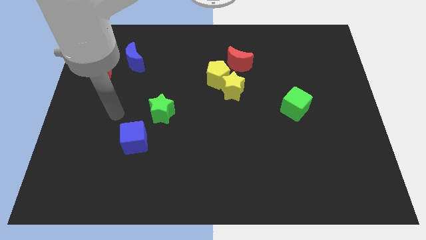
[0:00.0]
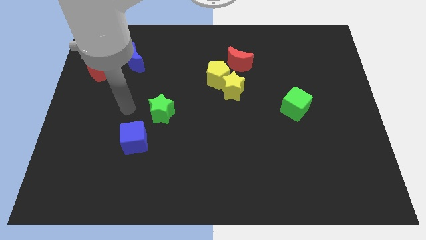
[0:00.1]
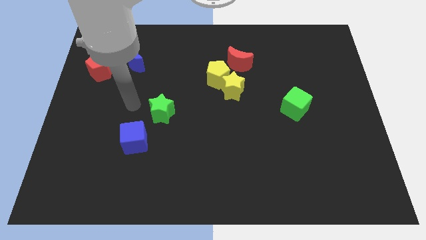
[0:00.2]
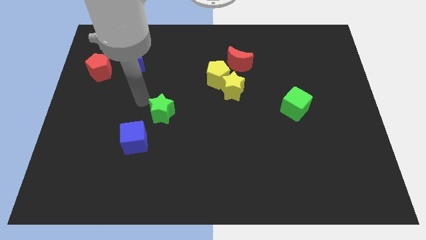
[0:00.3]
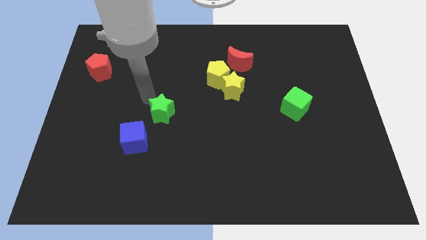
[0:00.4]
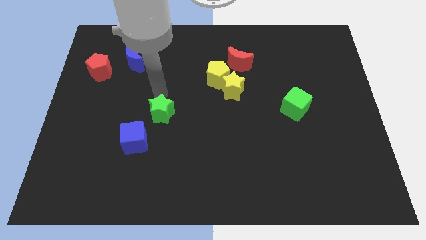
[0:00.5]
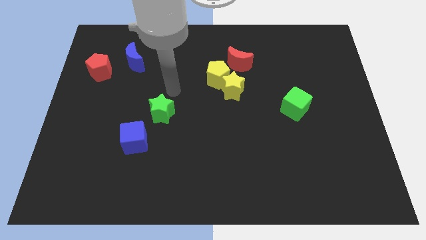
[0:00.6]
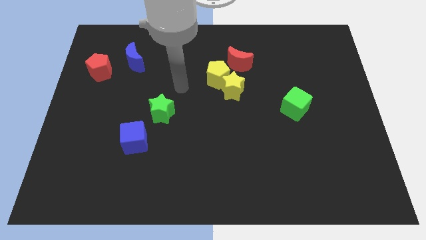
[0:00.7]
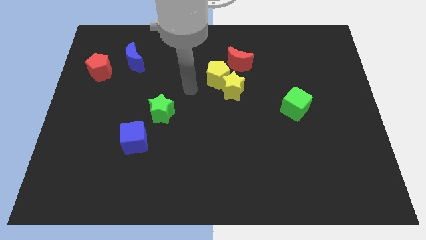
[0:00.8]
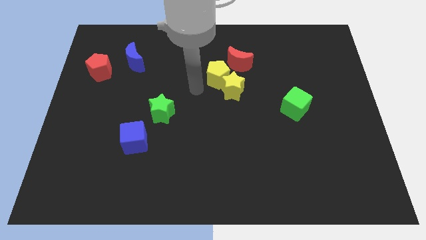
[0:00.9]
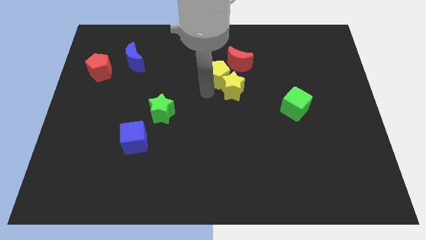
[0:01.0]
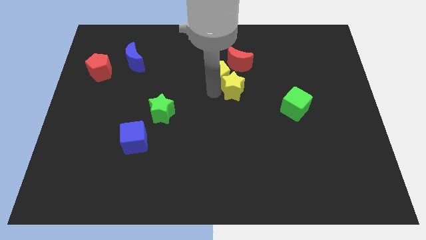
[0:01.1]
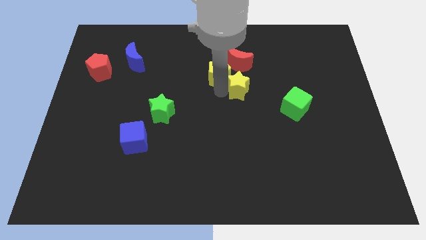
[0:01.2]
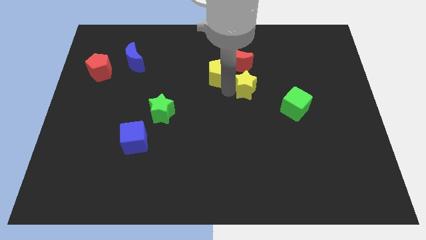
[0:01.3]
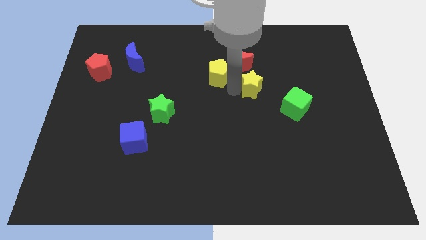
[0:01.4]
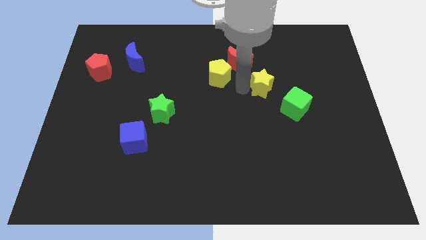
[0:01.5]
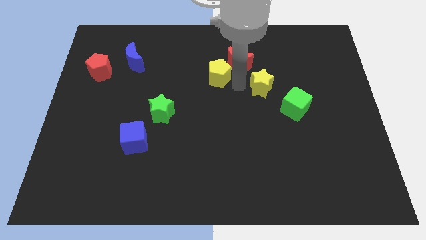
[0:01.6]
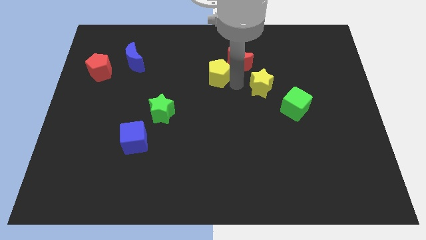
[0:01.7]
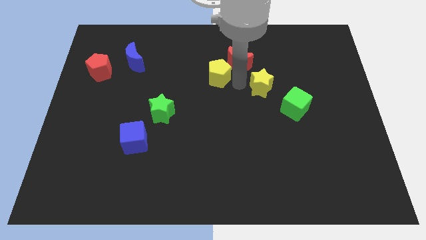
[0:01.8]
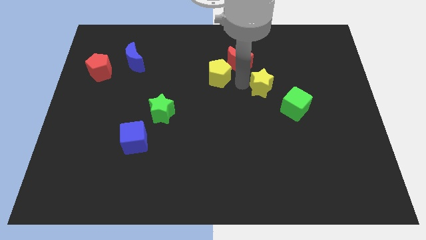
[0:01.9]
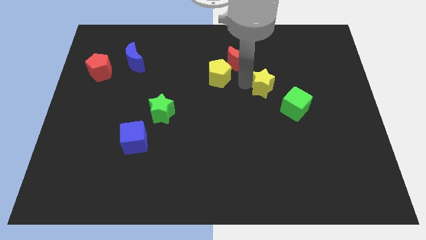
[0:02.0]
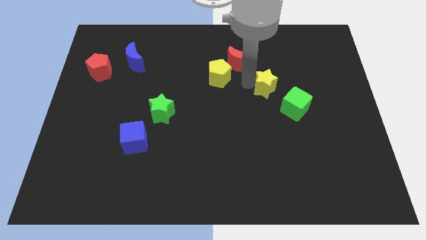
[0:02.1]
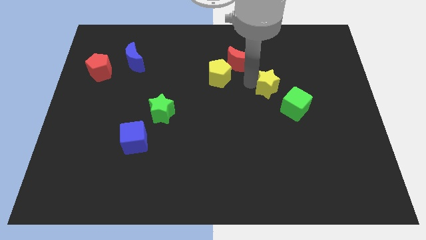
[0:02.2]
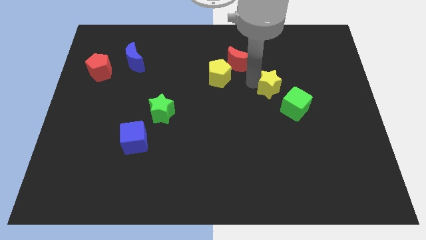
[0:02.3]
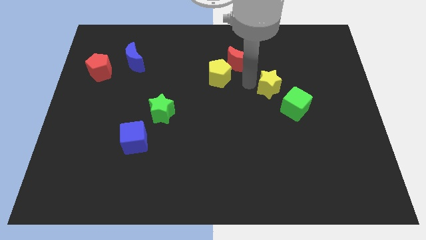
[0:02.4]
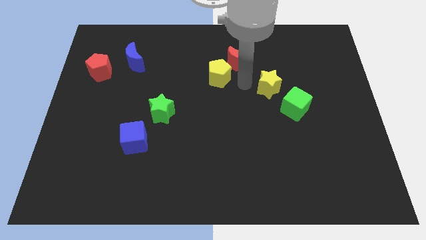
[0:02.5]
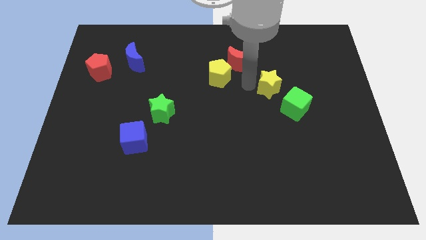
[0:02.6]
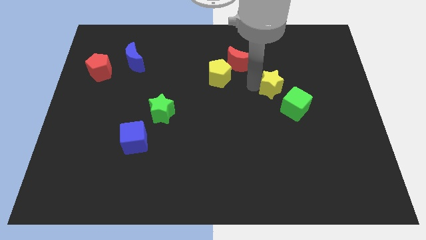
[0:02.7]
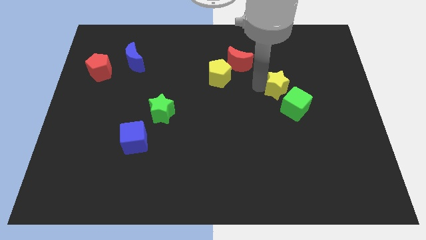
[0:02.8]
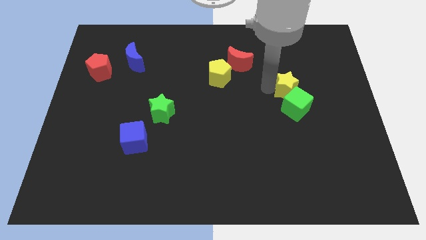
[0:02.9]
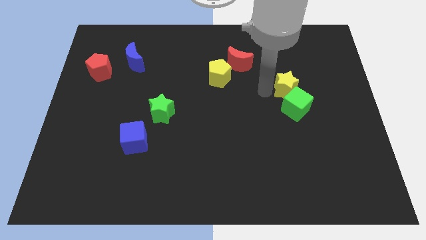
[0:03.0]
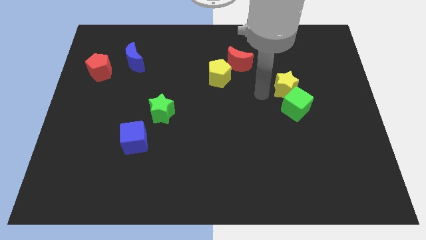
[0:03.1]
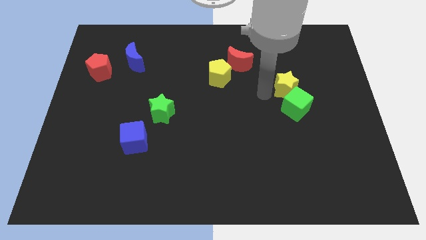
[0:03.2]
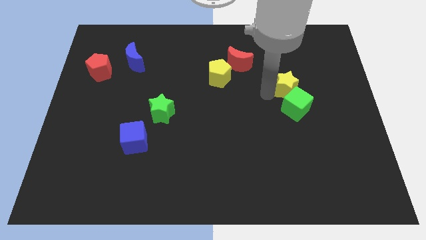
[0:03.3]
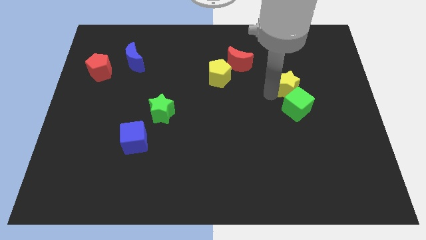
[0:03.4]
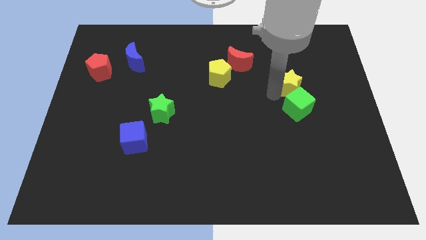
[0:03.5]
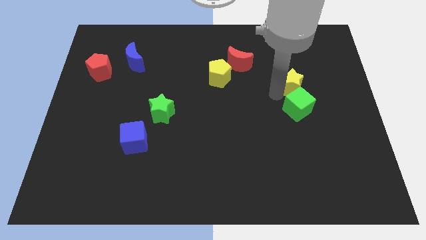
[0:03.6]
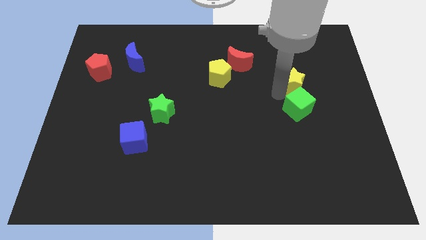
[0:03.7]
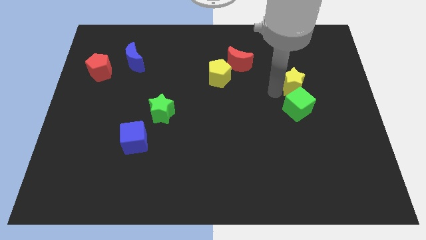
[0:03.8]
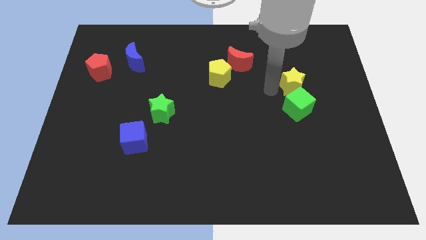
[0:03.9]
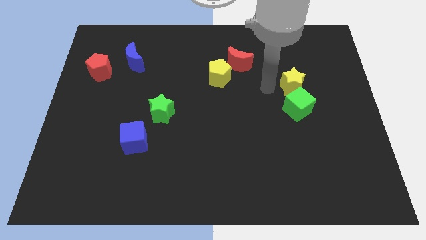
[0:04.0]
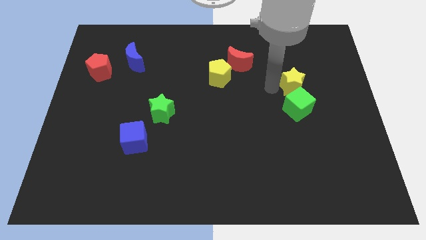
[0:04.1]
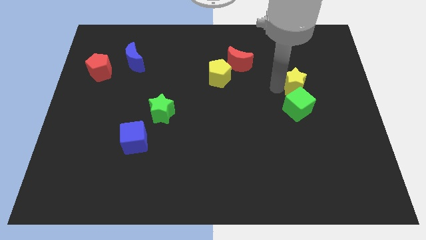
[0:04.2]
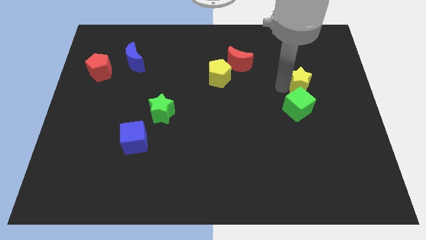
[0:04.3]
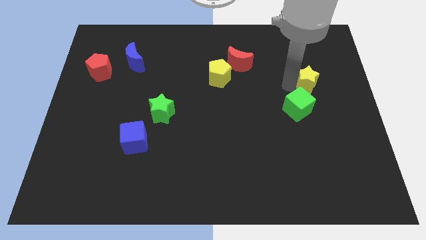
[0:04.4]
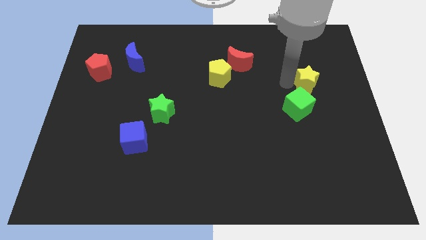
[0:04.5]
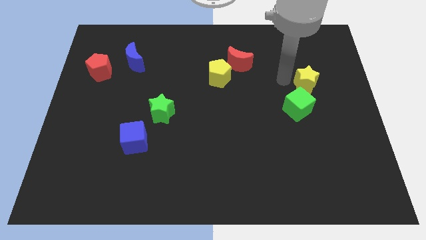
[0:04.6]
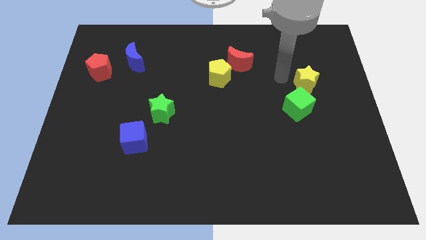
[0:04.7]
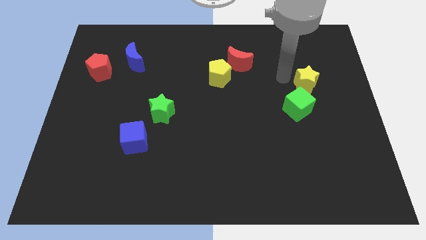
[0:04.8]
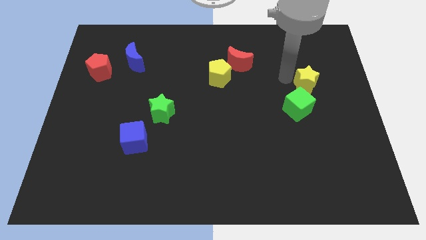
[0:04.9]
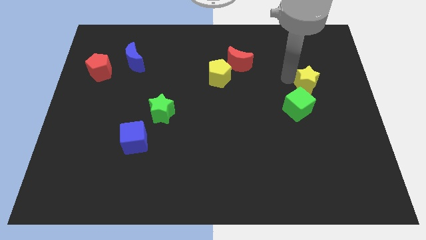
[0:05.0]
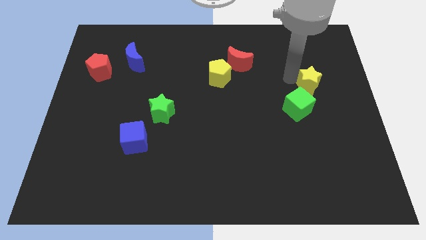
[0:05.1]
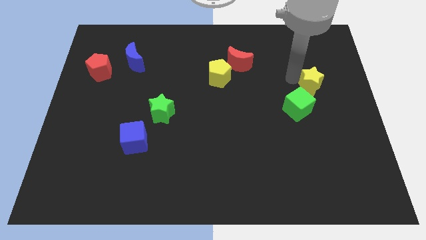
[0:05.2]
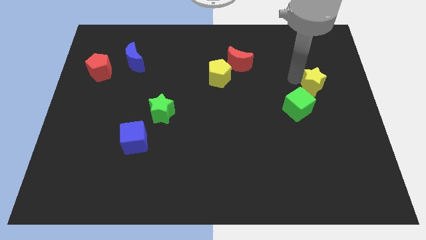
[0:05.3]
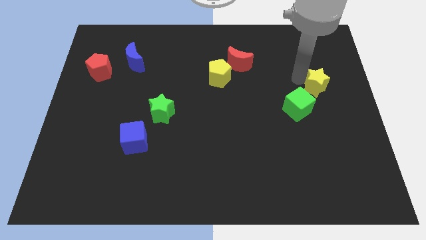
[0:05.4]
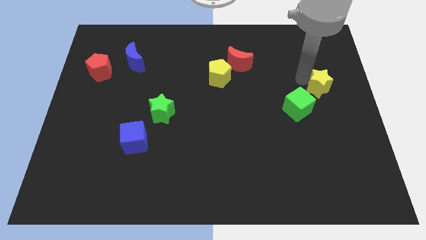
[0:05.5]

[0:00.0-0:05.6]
put the yellow star to the right side

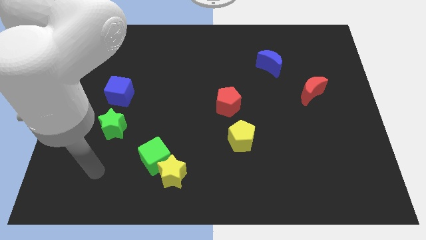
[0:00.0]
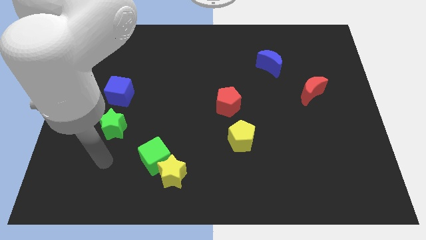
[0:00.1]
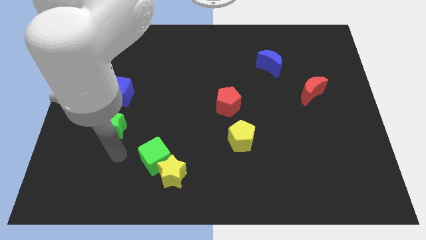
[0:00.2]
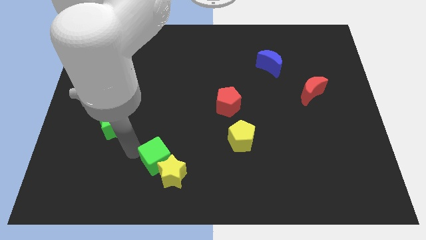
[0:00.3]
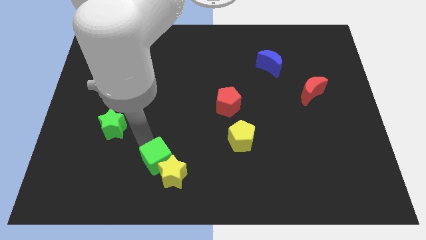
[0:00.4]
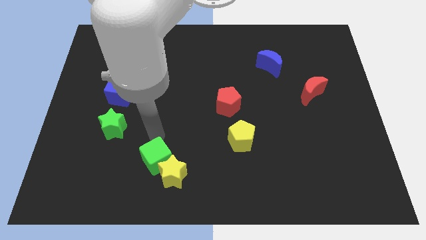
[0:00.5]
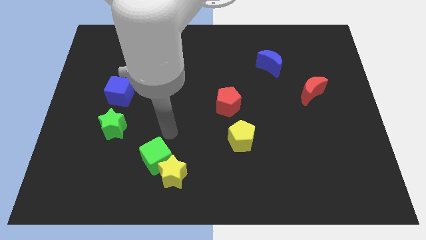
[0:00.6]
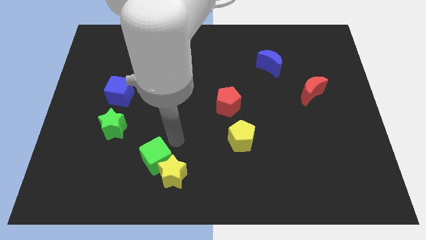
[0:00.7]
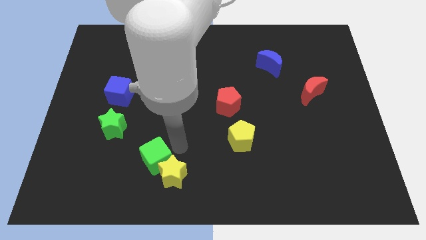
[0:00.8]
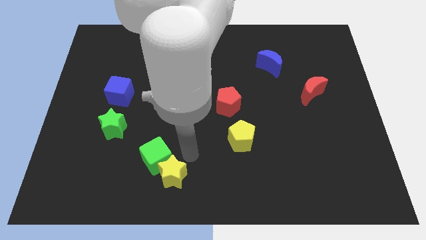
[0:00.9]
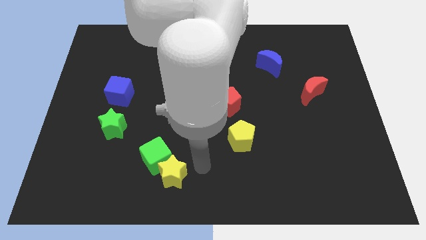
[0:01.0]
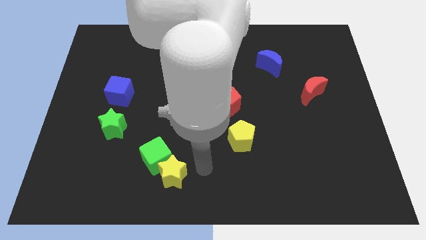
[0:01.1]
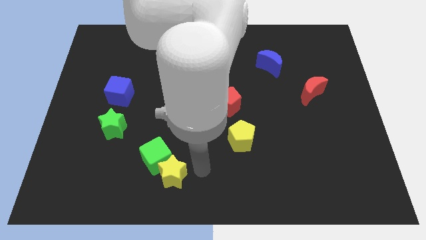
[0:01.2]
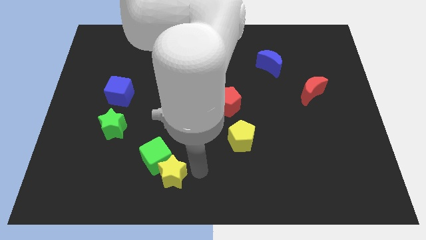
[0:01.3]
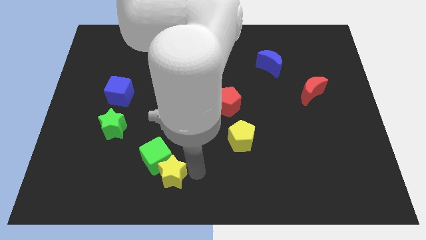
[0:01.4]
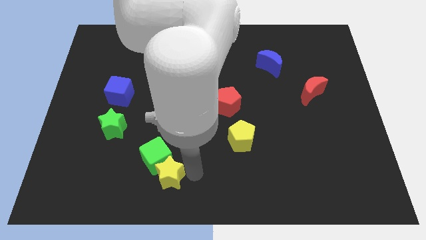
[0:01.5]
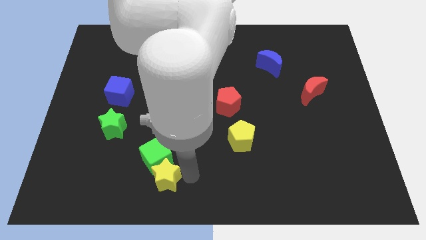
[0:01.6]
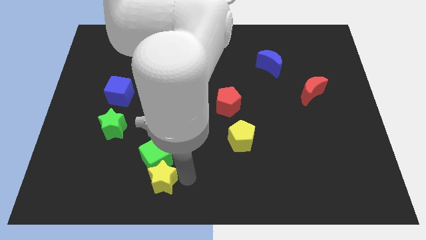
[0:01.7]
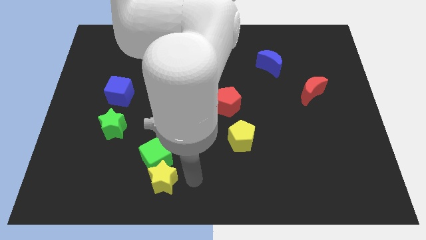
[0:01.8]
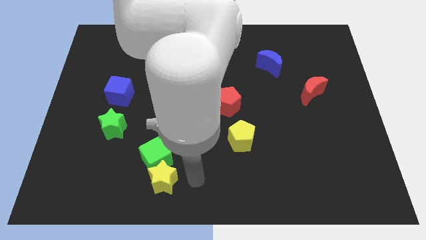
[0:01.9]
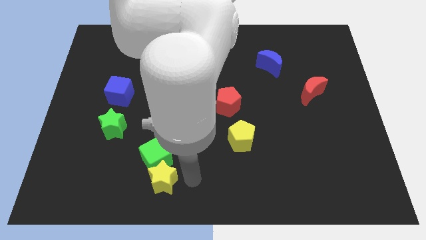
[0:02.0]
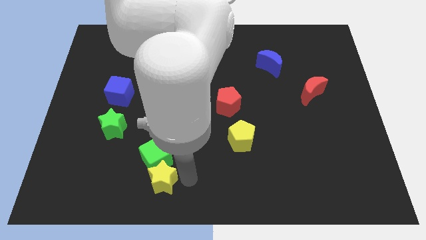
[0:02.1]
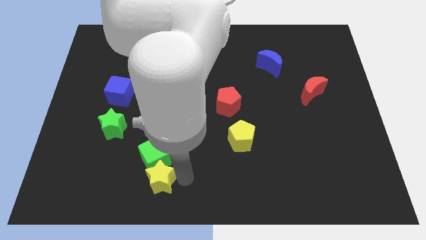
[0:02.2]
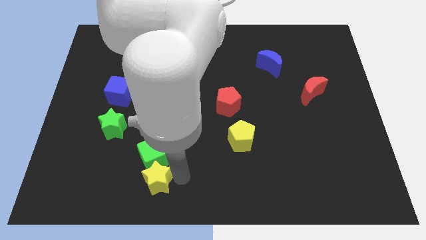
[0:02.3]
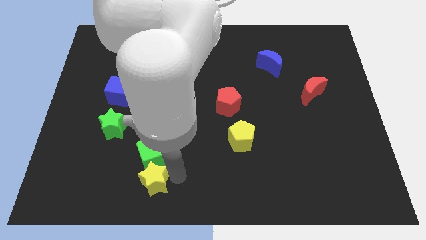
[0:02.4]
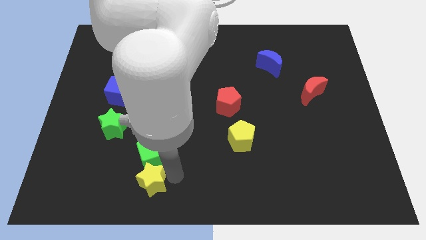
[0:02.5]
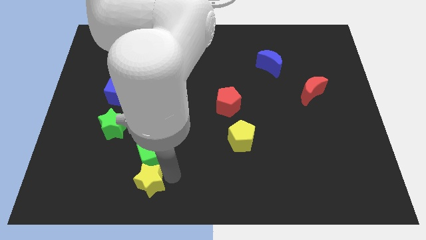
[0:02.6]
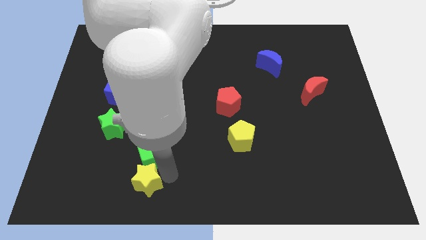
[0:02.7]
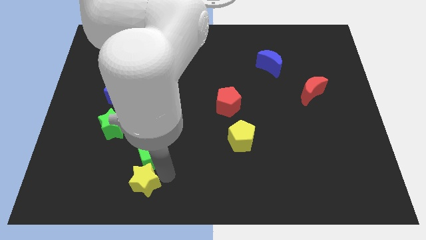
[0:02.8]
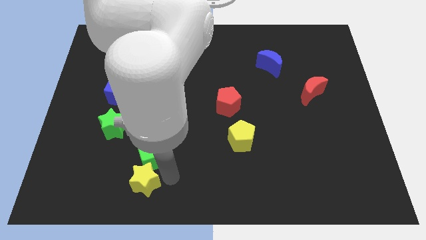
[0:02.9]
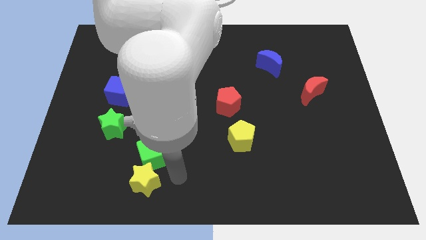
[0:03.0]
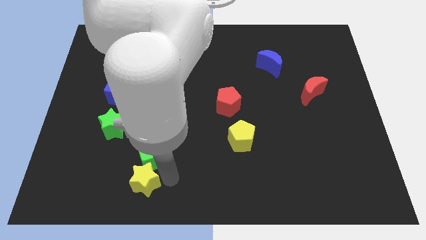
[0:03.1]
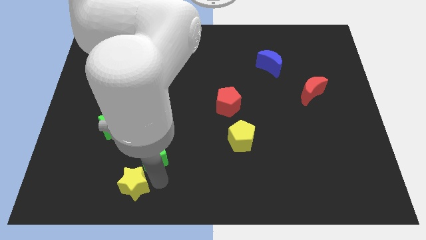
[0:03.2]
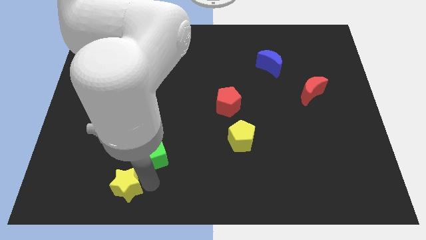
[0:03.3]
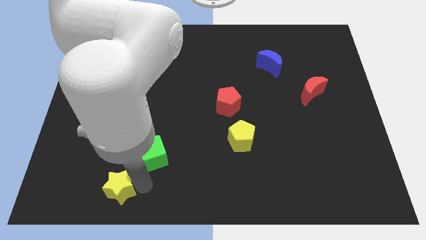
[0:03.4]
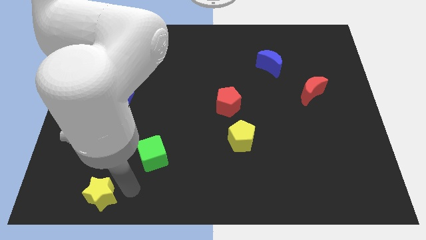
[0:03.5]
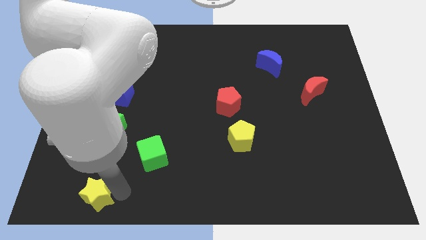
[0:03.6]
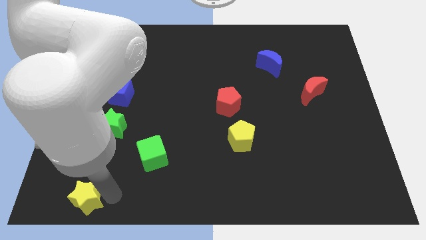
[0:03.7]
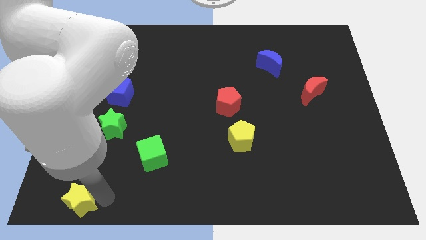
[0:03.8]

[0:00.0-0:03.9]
put the yellow star to the lower left corner
